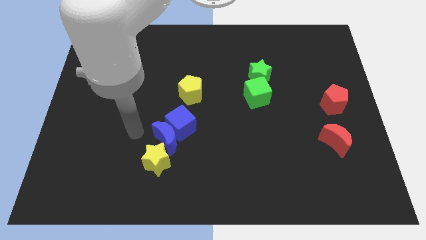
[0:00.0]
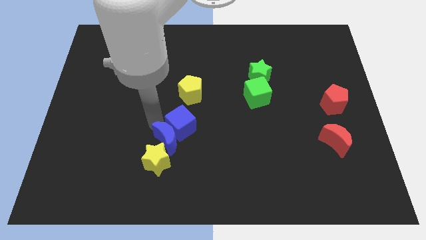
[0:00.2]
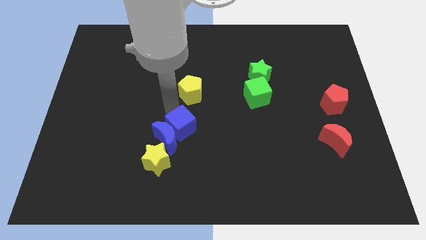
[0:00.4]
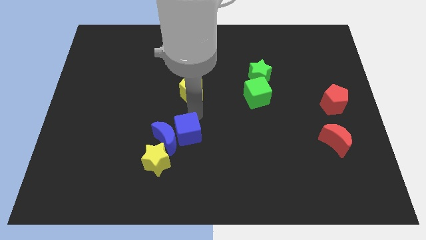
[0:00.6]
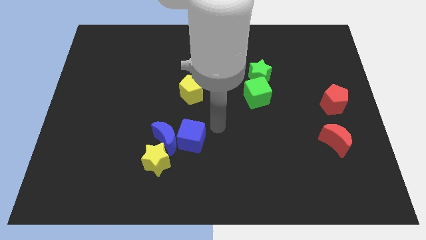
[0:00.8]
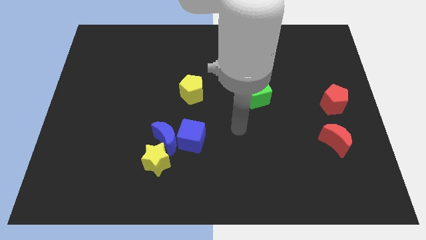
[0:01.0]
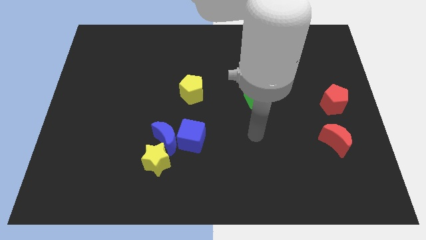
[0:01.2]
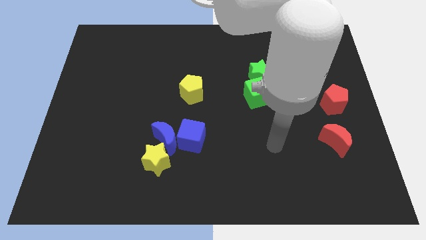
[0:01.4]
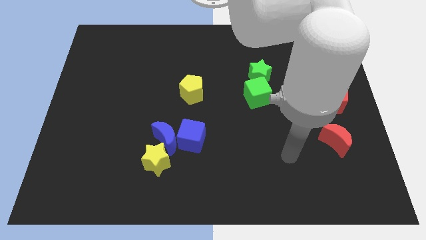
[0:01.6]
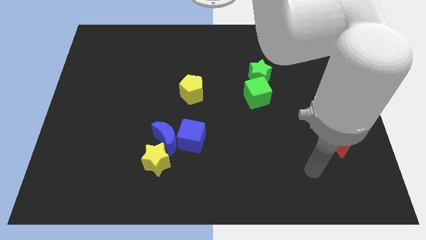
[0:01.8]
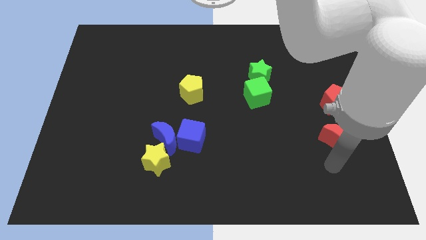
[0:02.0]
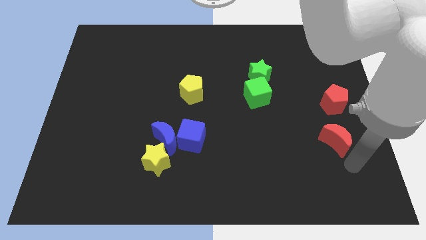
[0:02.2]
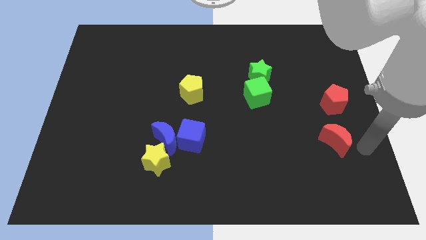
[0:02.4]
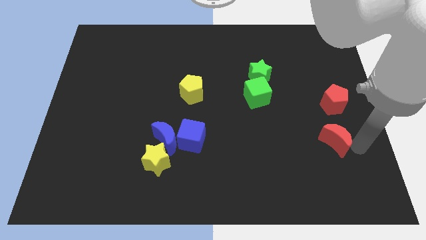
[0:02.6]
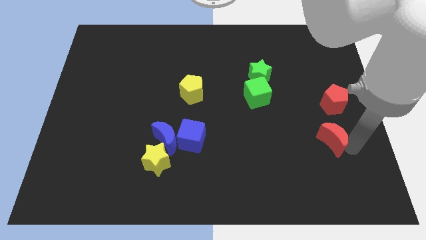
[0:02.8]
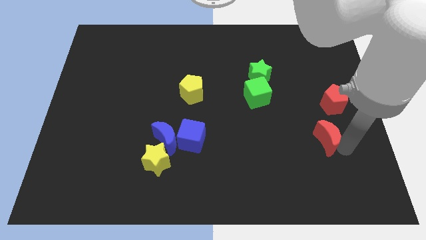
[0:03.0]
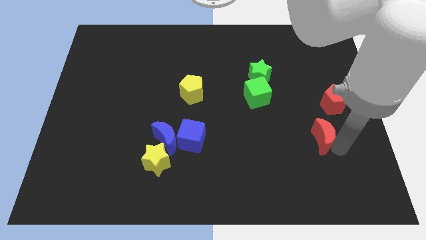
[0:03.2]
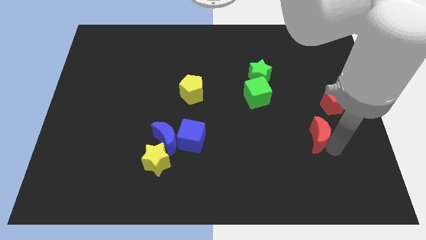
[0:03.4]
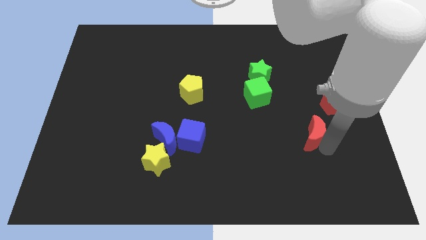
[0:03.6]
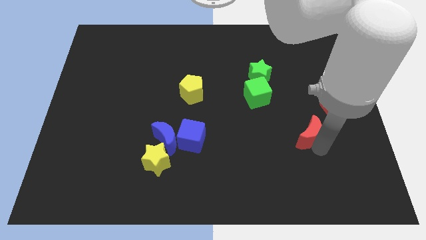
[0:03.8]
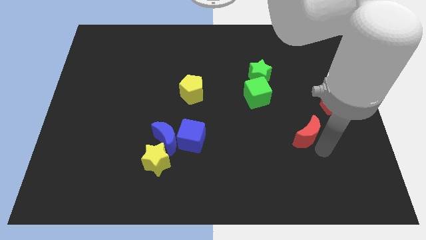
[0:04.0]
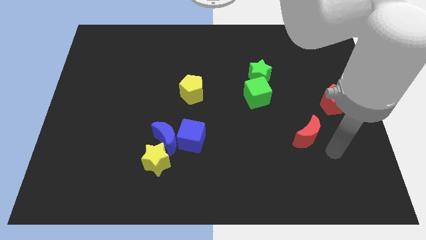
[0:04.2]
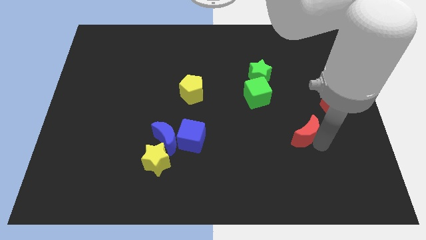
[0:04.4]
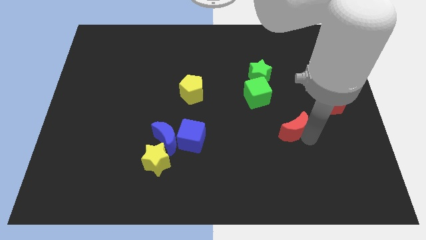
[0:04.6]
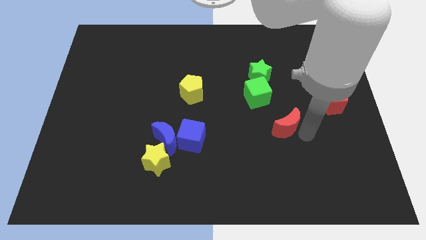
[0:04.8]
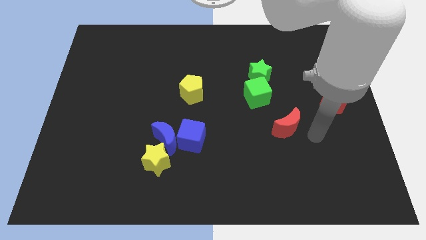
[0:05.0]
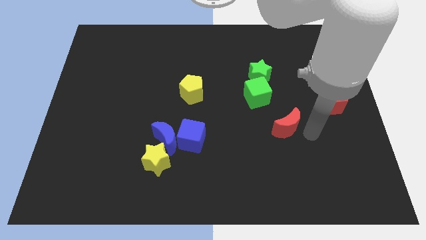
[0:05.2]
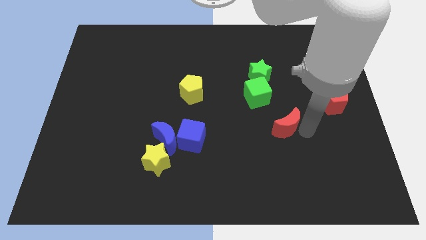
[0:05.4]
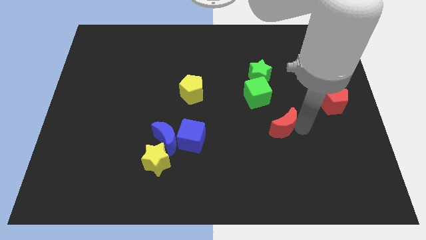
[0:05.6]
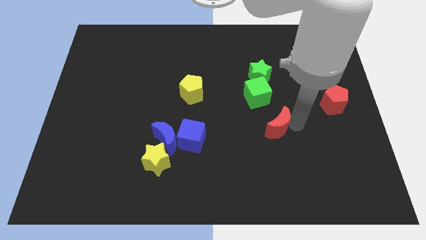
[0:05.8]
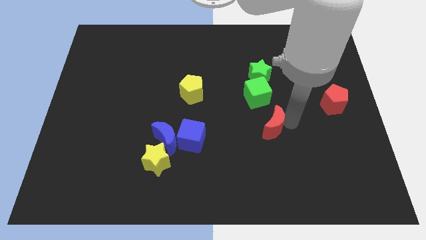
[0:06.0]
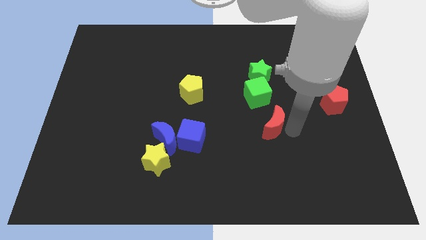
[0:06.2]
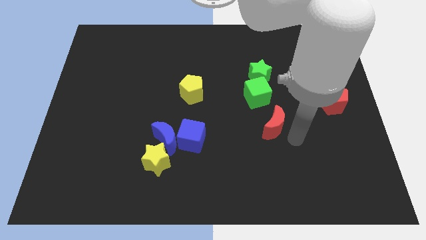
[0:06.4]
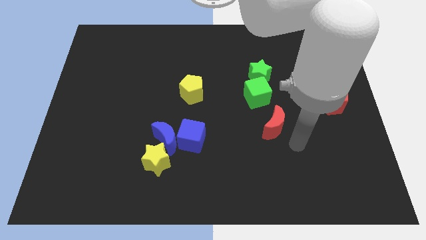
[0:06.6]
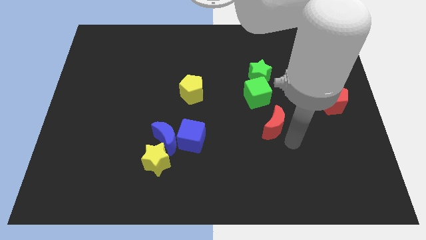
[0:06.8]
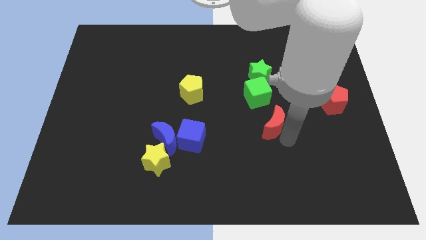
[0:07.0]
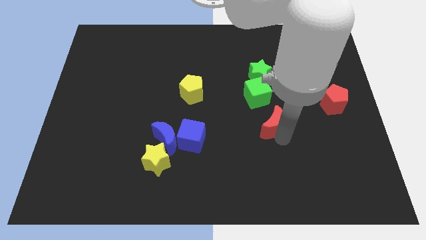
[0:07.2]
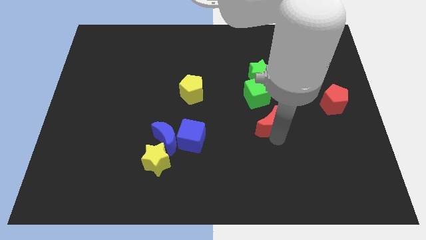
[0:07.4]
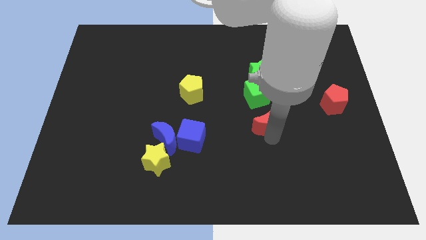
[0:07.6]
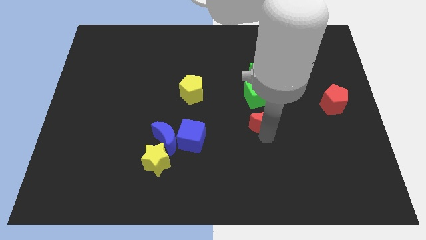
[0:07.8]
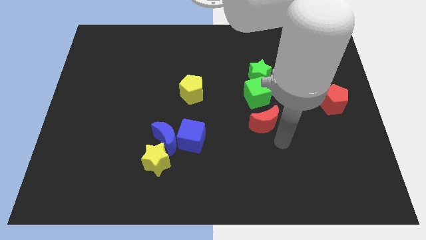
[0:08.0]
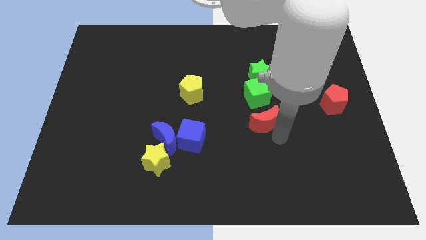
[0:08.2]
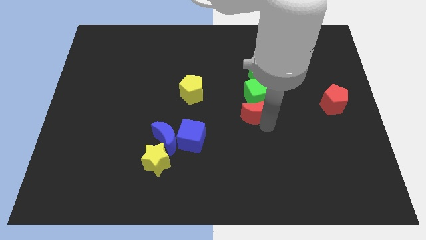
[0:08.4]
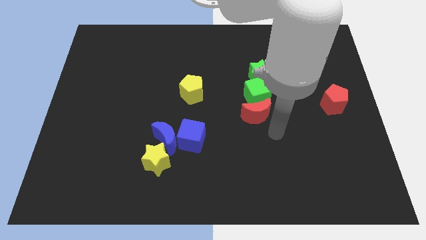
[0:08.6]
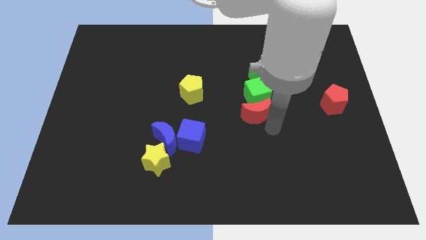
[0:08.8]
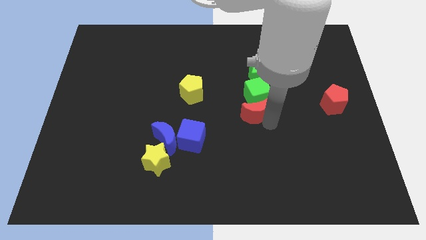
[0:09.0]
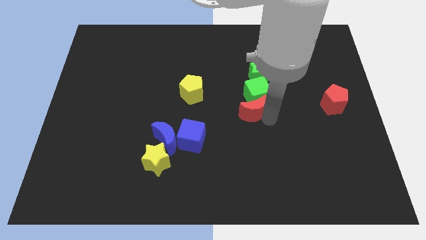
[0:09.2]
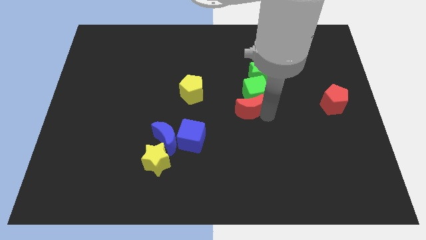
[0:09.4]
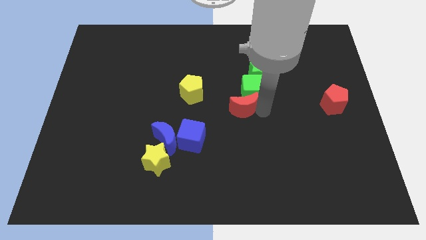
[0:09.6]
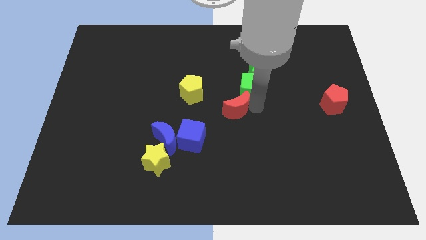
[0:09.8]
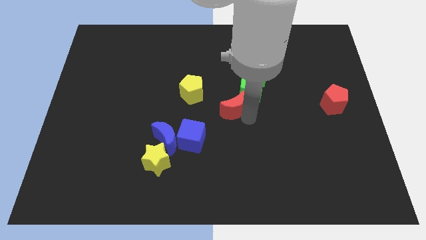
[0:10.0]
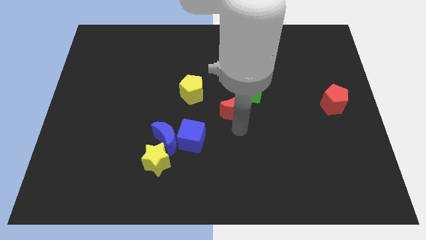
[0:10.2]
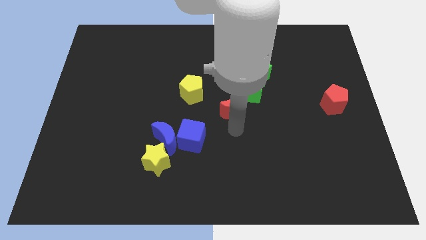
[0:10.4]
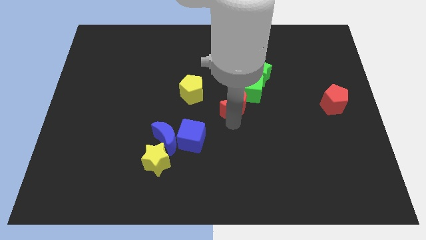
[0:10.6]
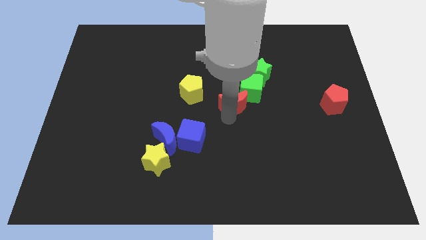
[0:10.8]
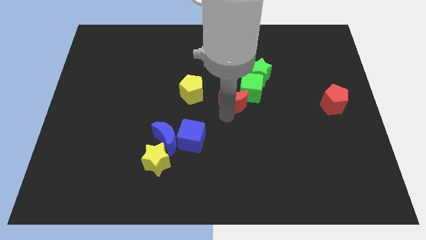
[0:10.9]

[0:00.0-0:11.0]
push the red moon upwards and then to the left

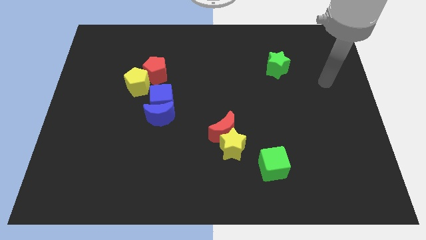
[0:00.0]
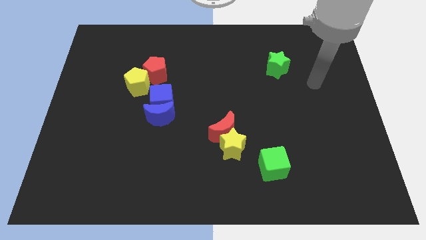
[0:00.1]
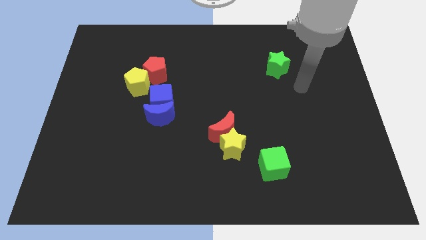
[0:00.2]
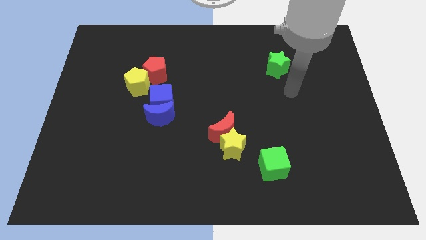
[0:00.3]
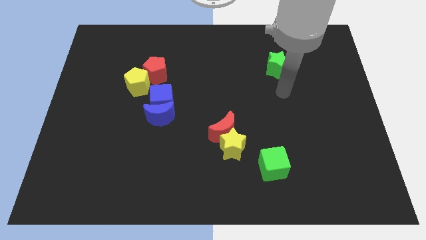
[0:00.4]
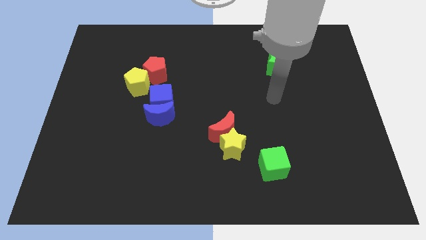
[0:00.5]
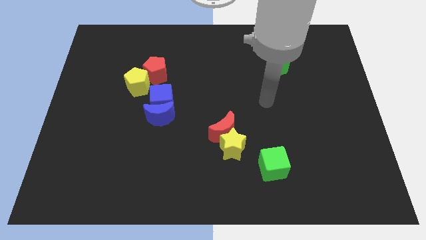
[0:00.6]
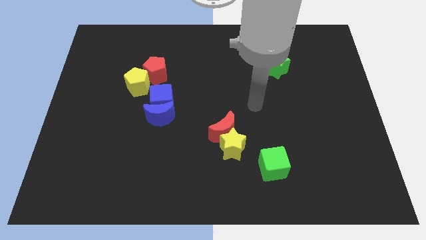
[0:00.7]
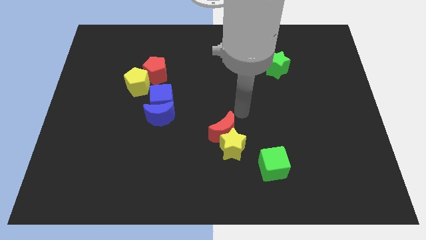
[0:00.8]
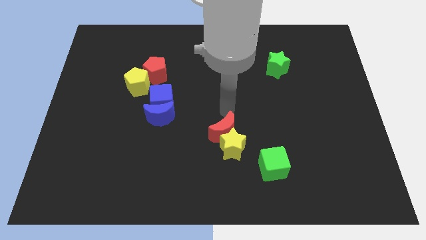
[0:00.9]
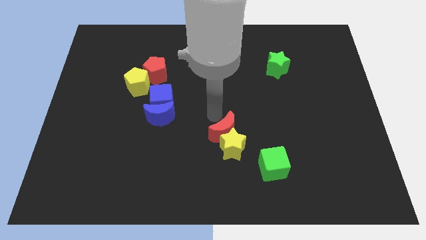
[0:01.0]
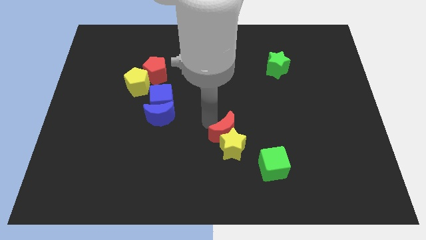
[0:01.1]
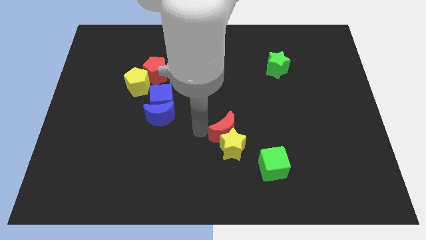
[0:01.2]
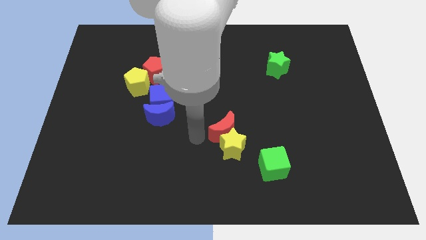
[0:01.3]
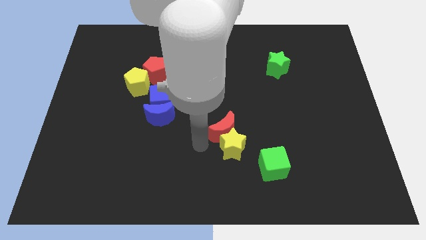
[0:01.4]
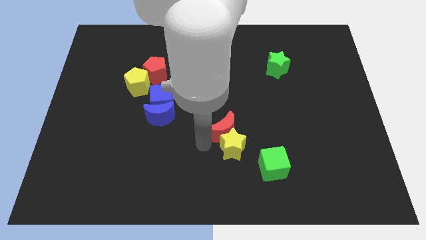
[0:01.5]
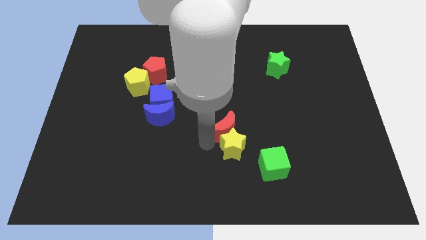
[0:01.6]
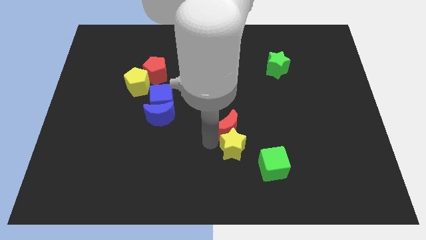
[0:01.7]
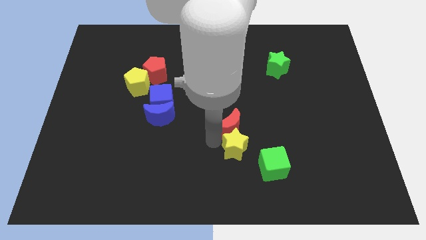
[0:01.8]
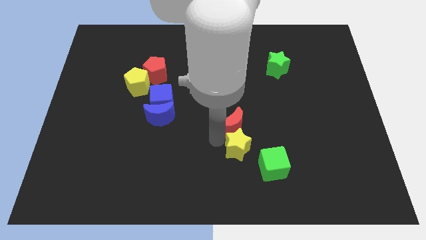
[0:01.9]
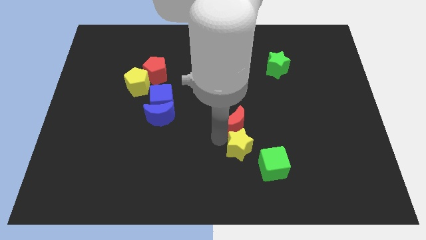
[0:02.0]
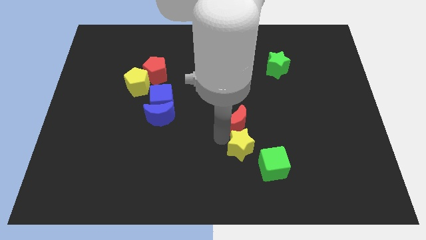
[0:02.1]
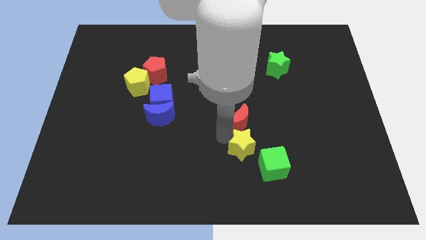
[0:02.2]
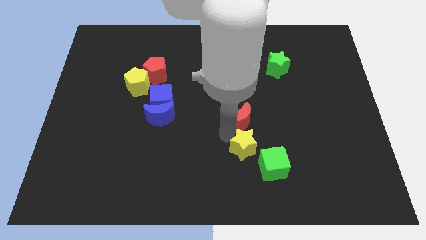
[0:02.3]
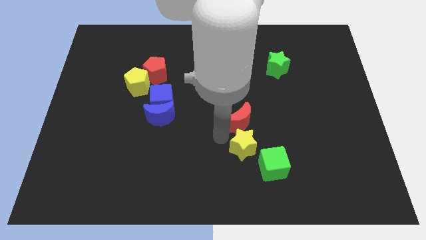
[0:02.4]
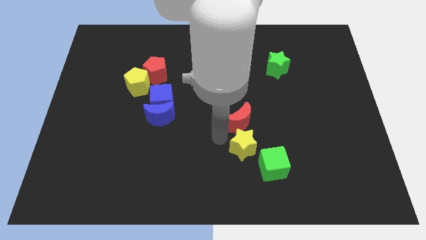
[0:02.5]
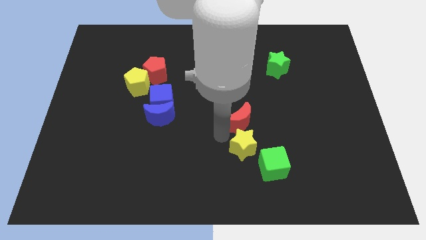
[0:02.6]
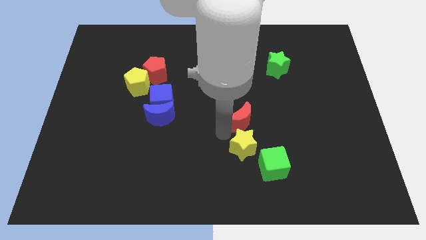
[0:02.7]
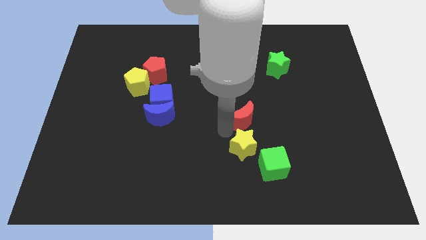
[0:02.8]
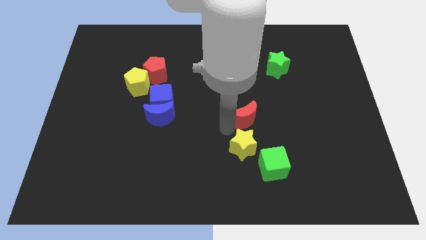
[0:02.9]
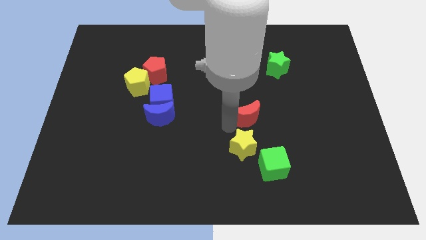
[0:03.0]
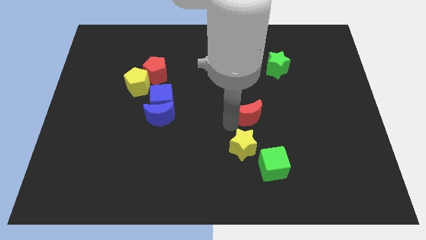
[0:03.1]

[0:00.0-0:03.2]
slightly push the red moon up and right diagonally
